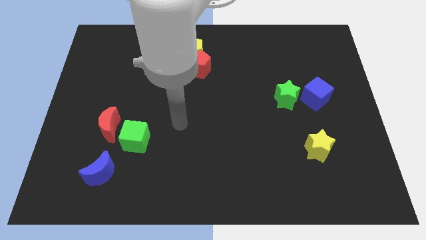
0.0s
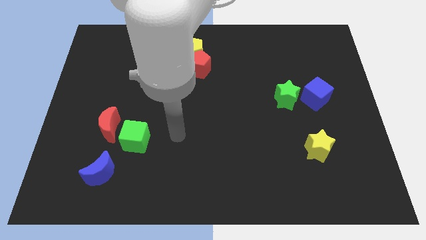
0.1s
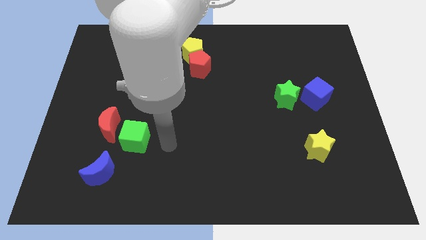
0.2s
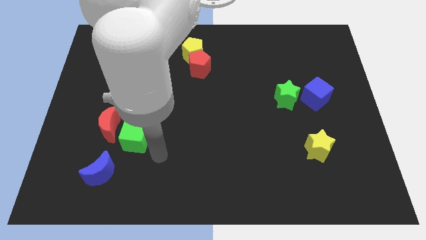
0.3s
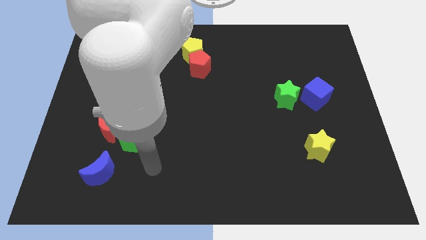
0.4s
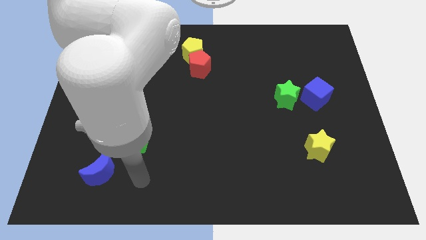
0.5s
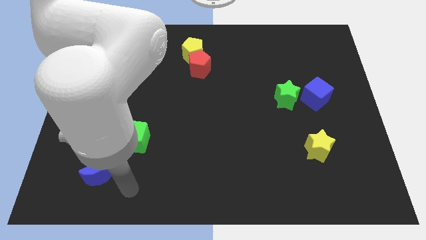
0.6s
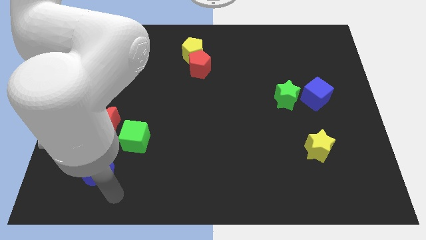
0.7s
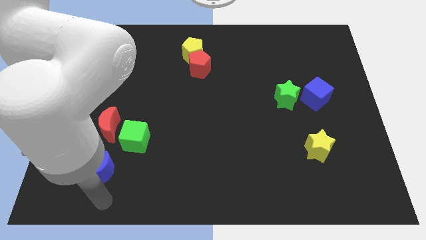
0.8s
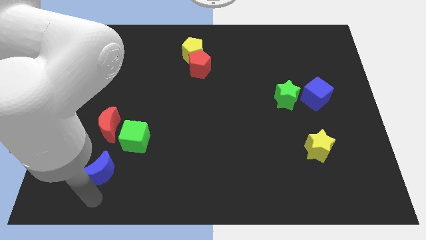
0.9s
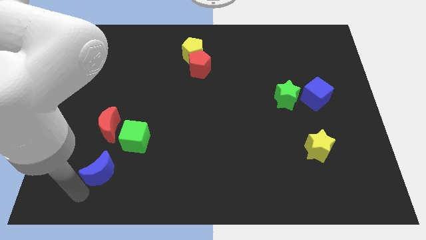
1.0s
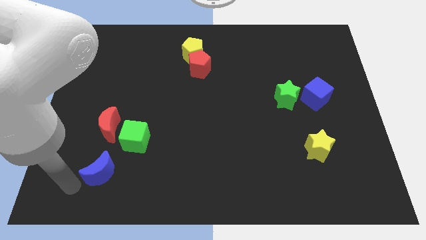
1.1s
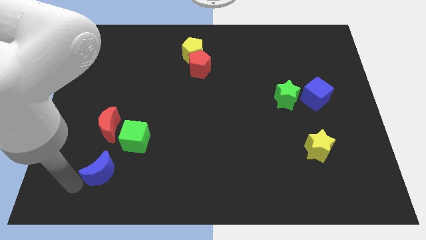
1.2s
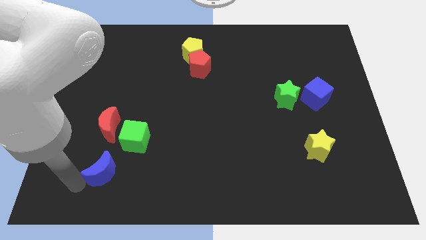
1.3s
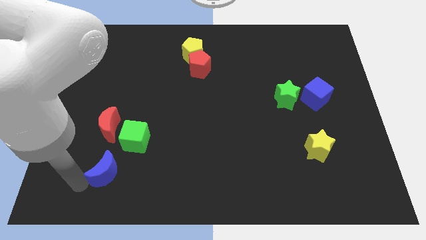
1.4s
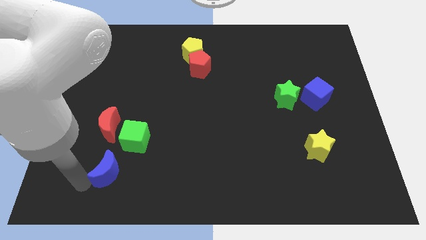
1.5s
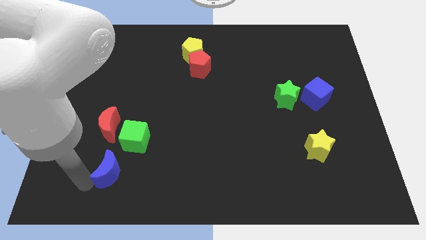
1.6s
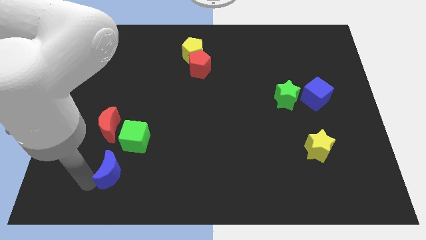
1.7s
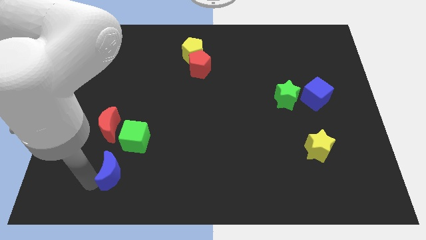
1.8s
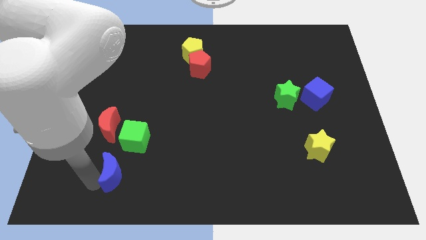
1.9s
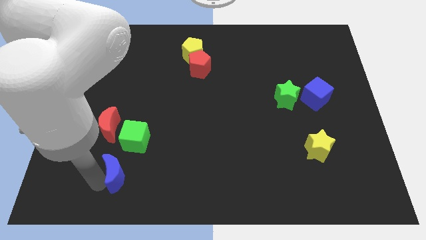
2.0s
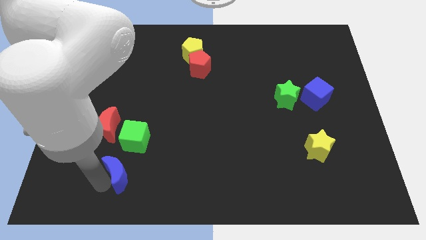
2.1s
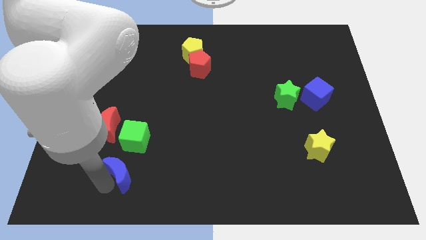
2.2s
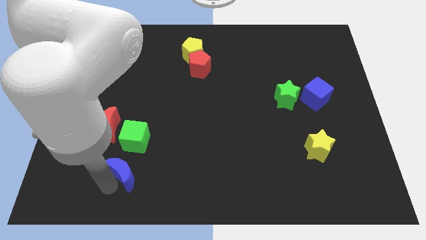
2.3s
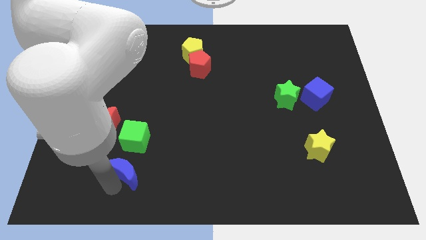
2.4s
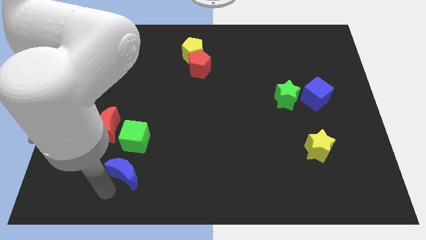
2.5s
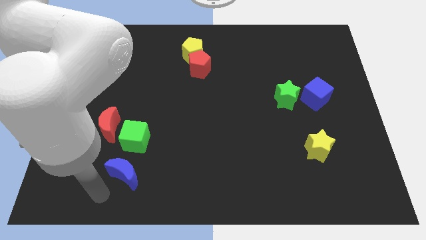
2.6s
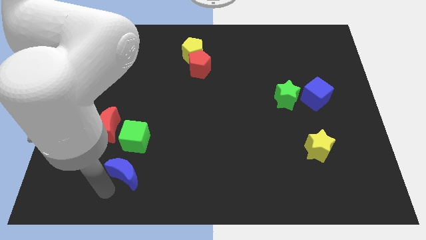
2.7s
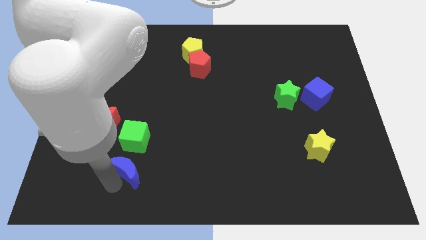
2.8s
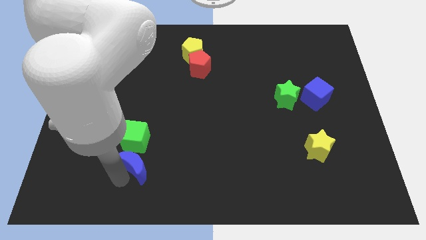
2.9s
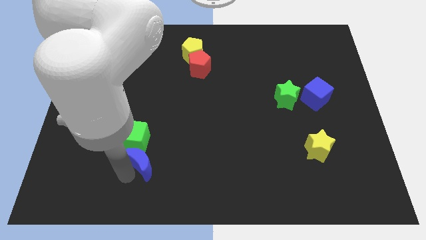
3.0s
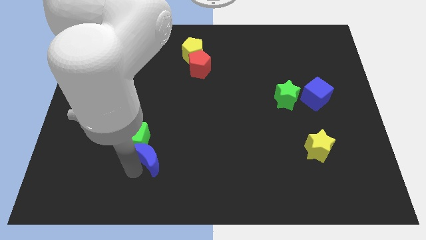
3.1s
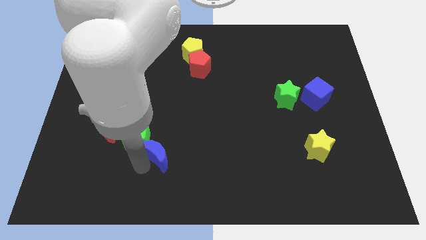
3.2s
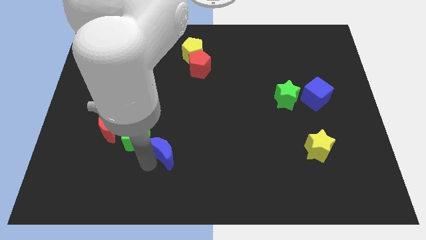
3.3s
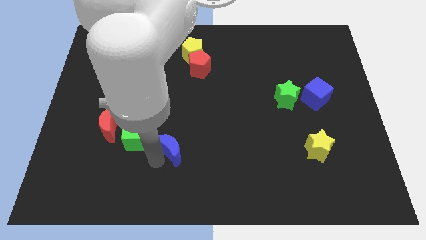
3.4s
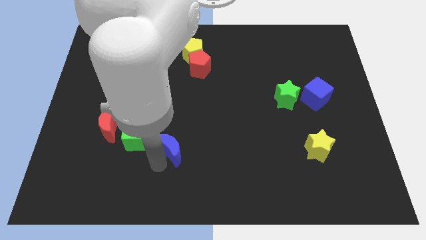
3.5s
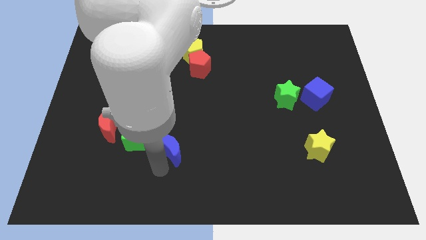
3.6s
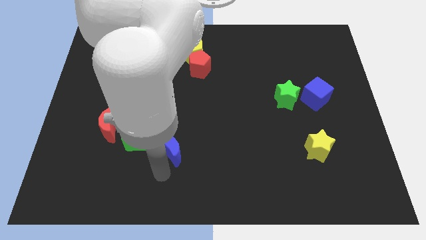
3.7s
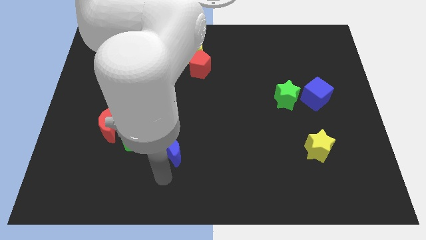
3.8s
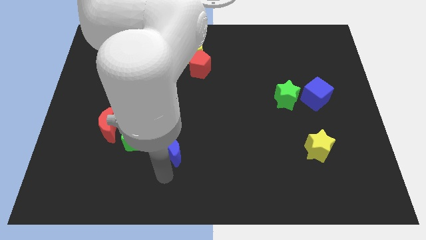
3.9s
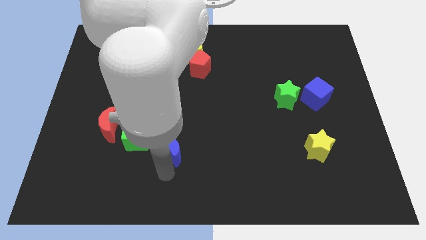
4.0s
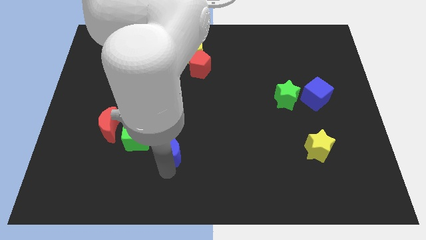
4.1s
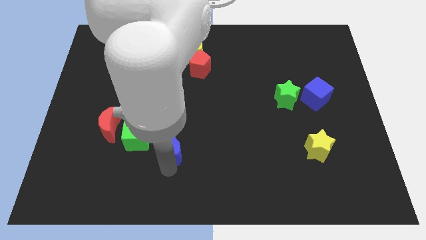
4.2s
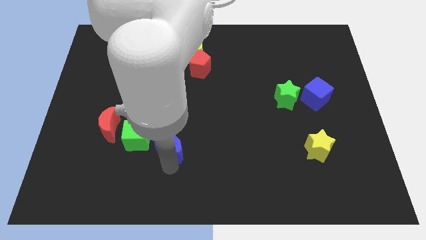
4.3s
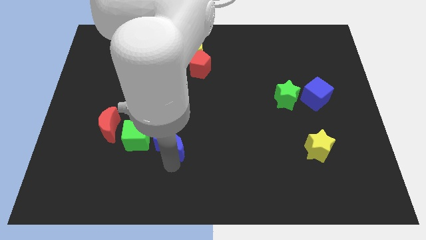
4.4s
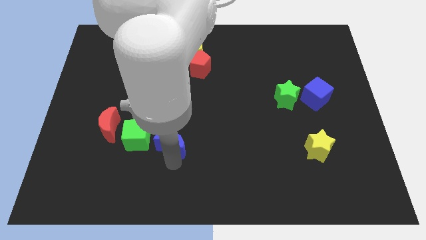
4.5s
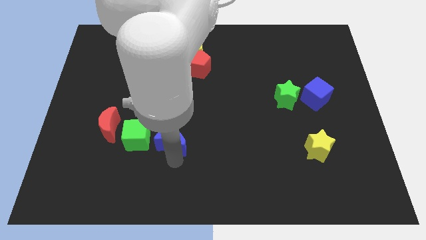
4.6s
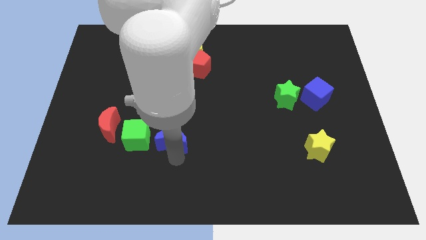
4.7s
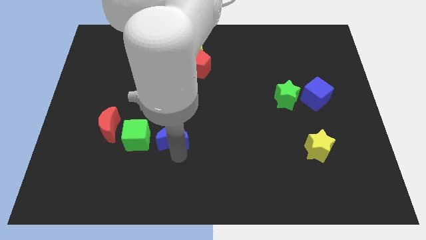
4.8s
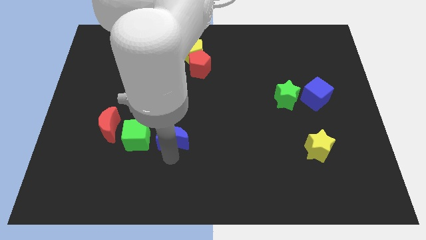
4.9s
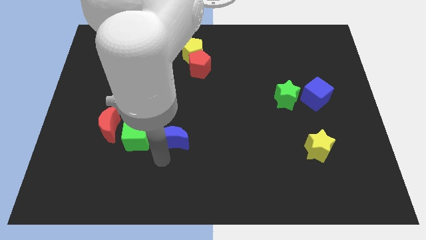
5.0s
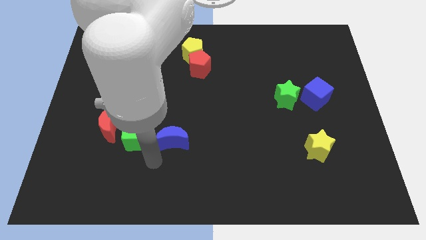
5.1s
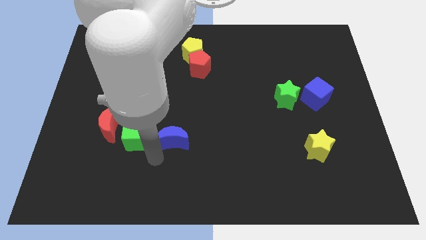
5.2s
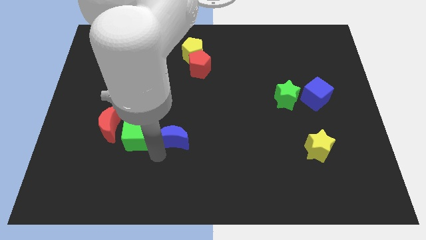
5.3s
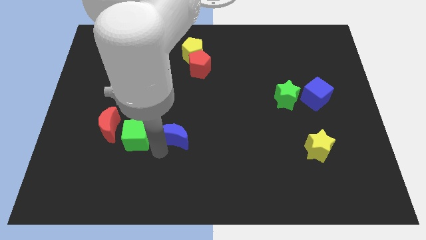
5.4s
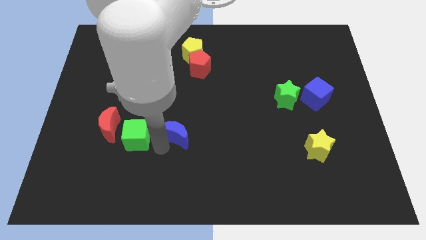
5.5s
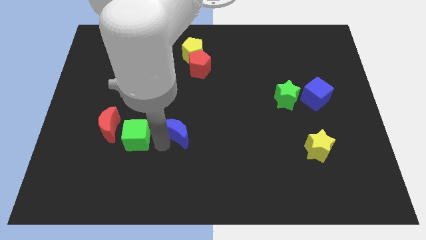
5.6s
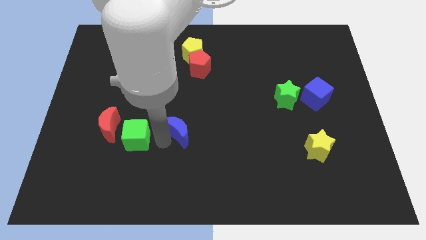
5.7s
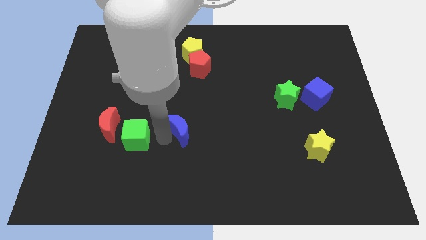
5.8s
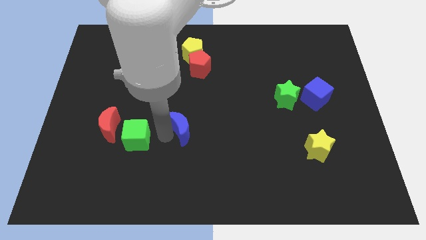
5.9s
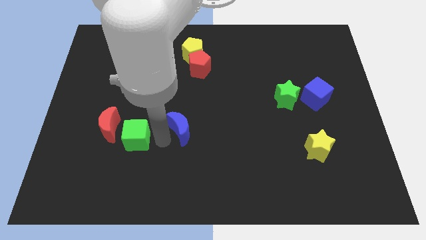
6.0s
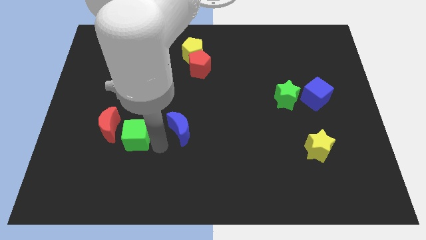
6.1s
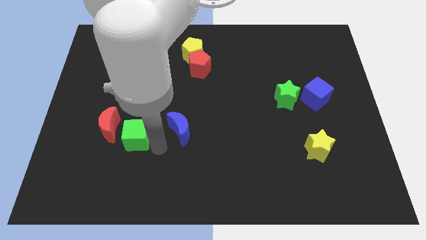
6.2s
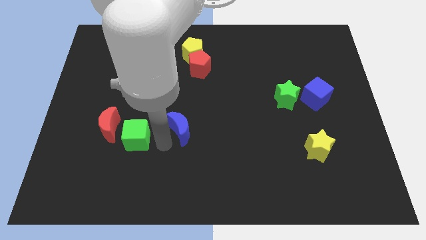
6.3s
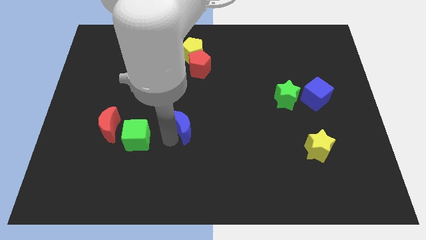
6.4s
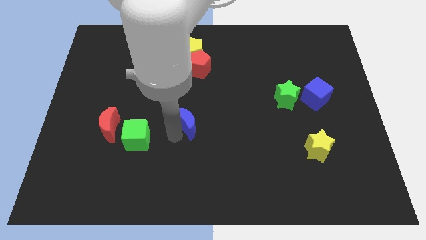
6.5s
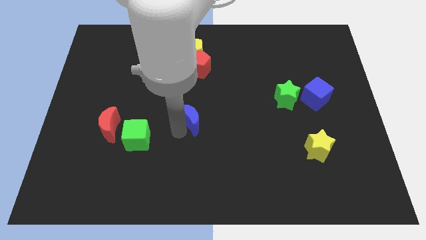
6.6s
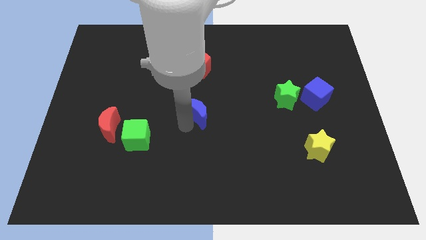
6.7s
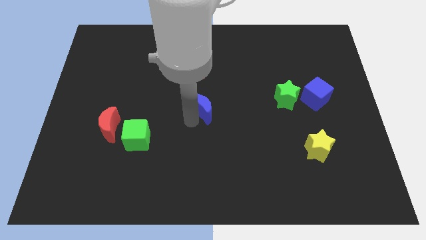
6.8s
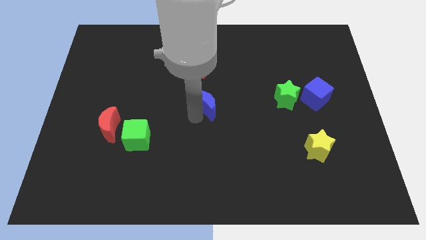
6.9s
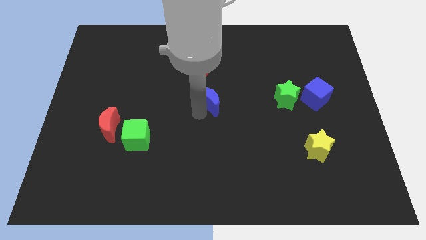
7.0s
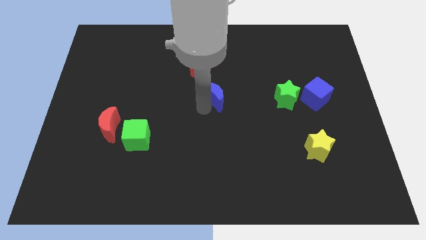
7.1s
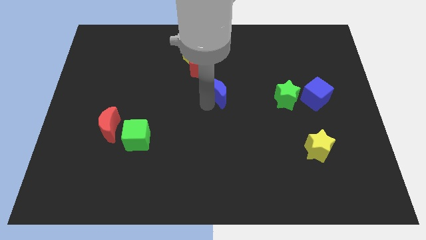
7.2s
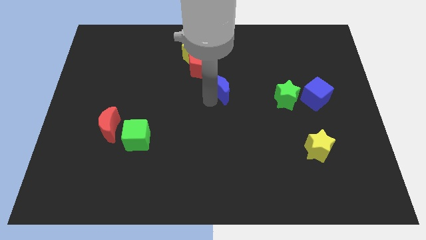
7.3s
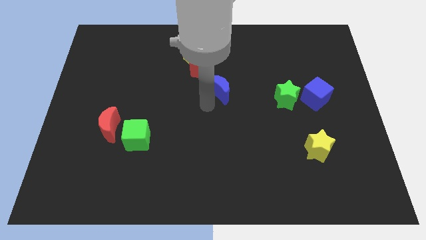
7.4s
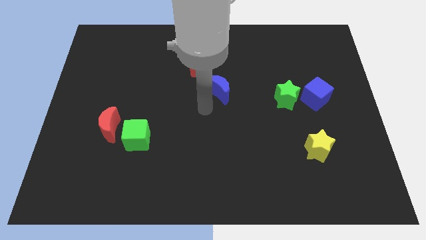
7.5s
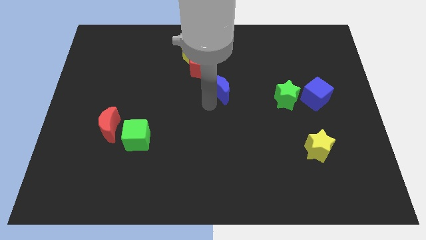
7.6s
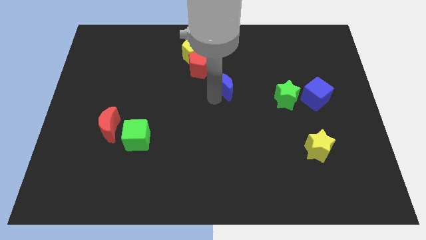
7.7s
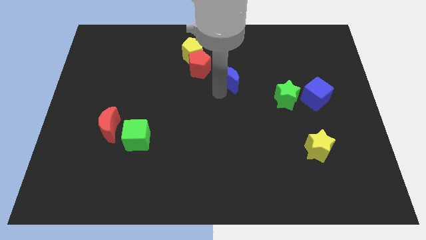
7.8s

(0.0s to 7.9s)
put the blue moon to the right side of the red pentagon
